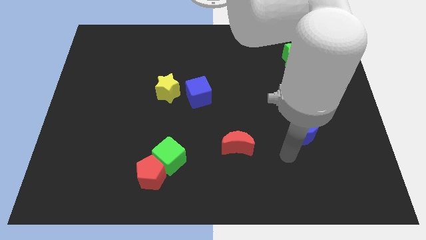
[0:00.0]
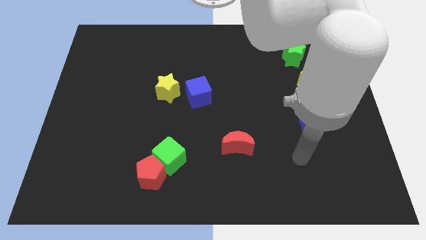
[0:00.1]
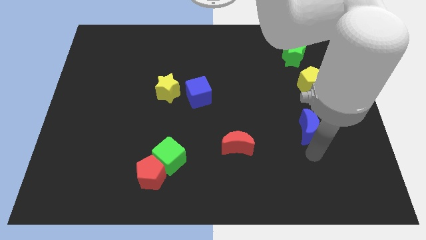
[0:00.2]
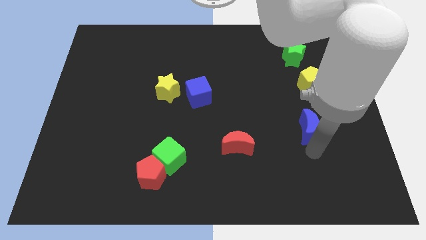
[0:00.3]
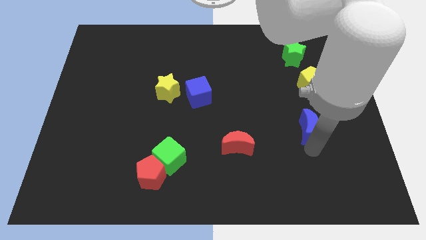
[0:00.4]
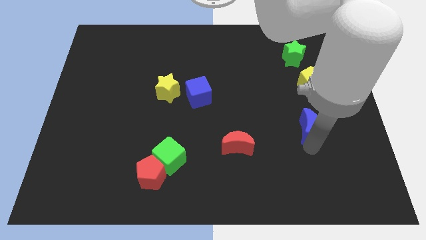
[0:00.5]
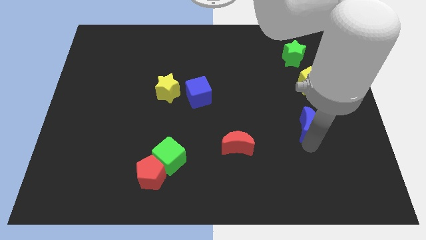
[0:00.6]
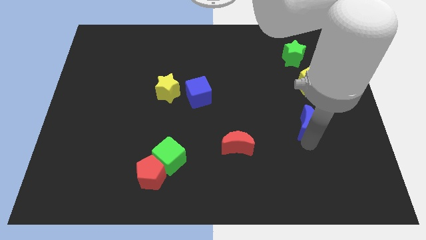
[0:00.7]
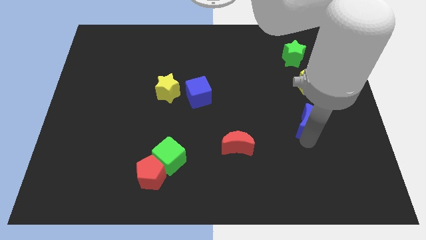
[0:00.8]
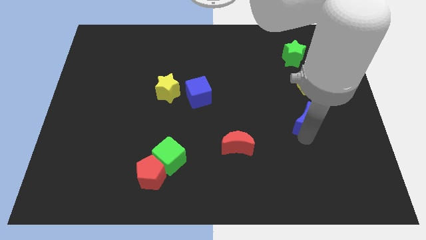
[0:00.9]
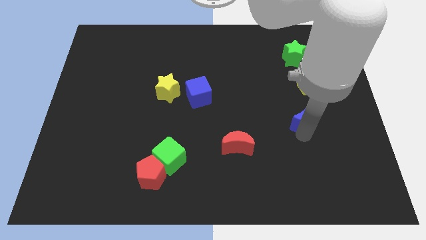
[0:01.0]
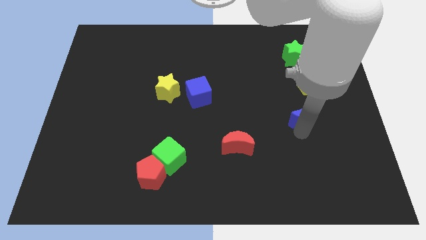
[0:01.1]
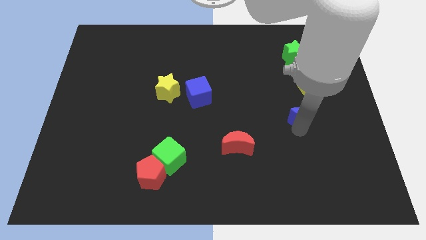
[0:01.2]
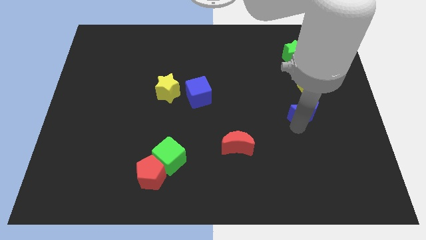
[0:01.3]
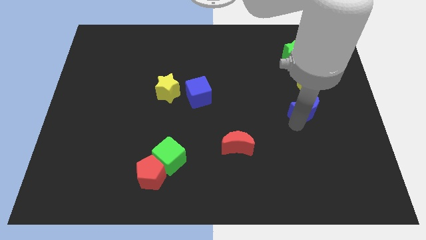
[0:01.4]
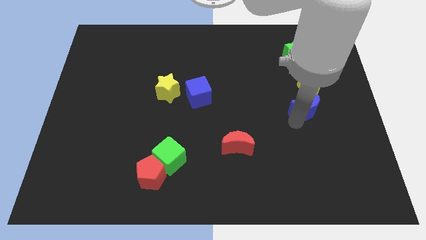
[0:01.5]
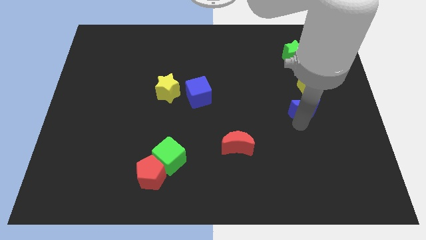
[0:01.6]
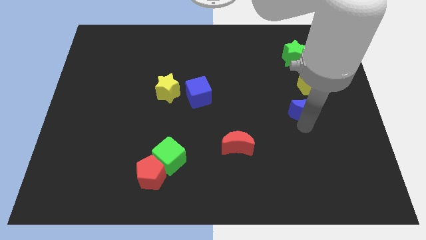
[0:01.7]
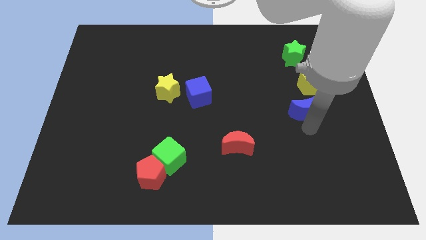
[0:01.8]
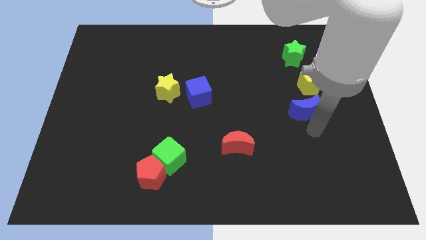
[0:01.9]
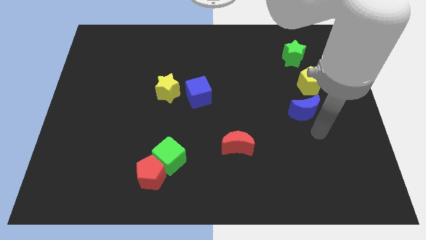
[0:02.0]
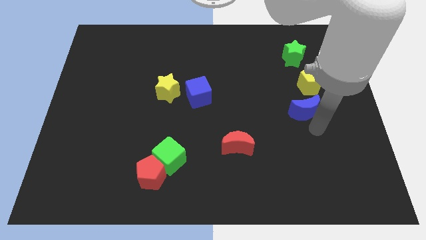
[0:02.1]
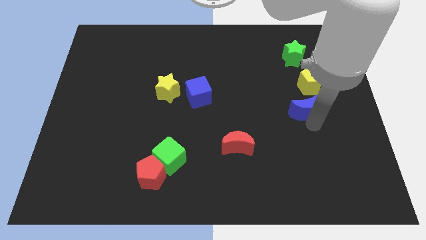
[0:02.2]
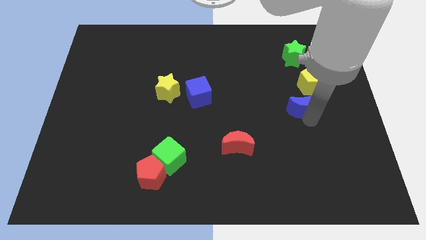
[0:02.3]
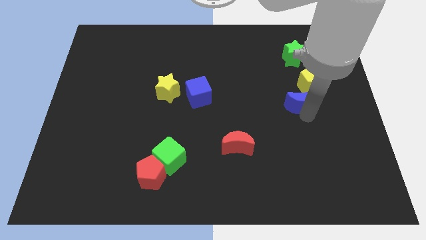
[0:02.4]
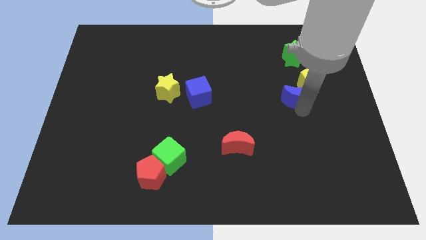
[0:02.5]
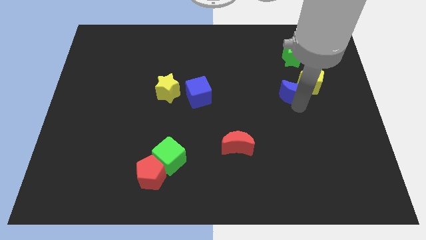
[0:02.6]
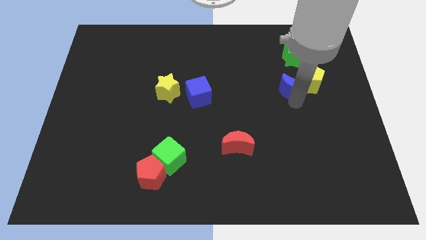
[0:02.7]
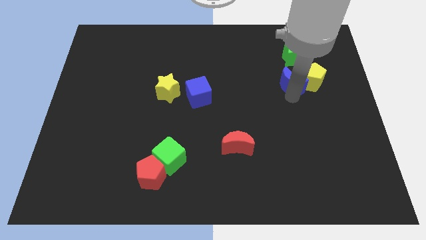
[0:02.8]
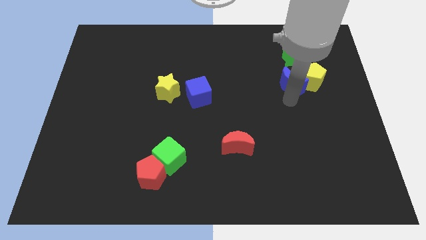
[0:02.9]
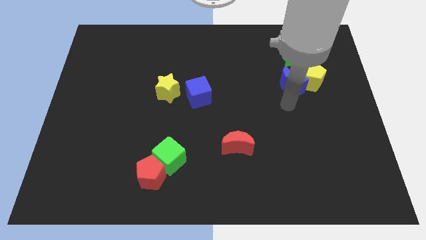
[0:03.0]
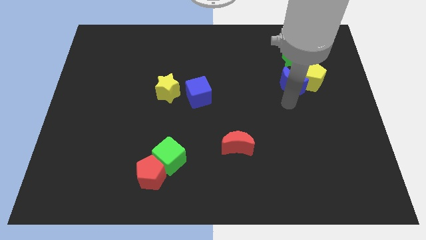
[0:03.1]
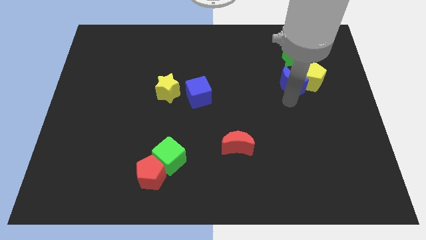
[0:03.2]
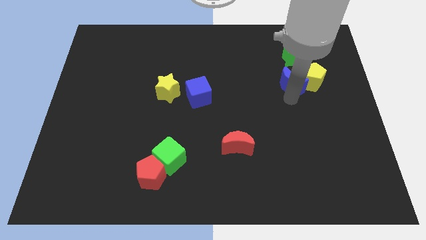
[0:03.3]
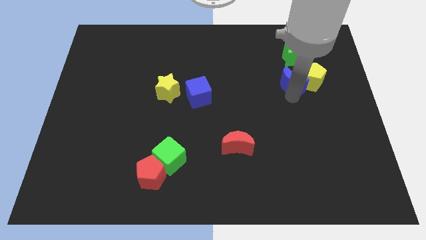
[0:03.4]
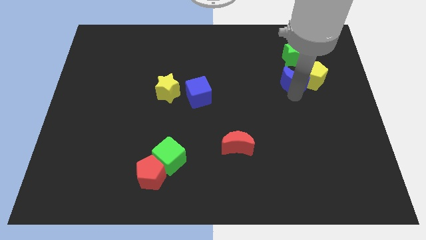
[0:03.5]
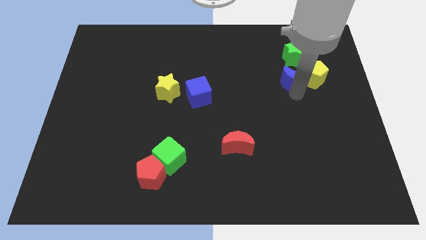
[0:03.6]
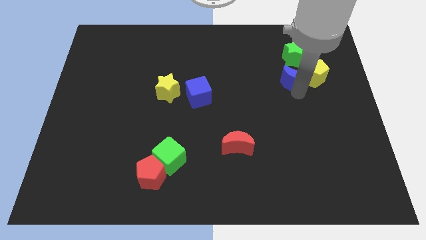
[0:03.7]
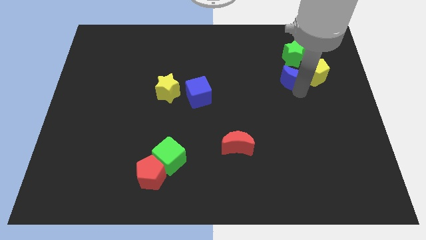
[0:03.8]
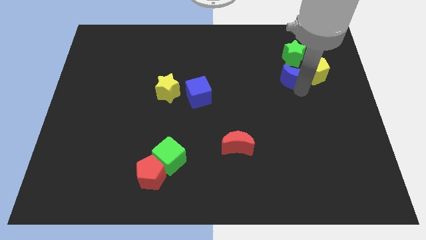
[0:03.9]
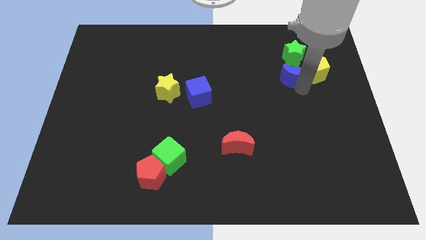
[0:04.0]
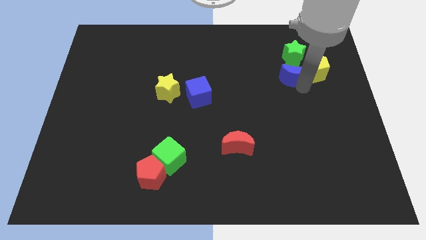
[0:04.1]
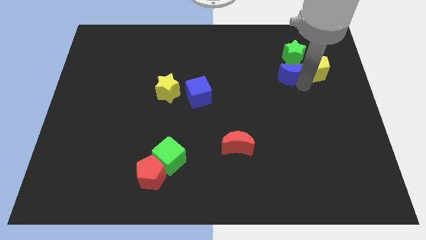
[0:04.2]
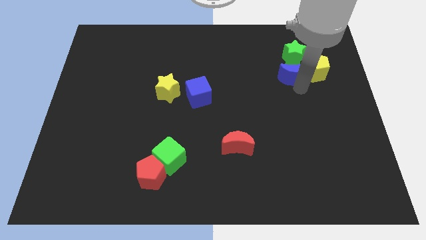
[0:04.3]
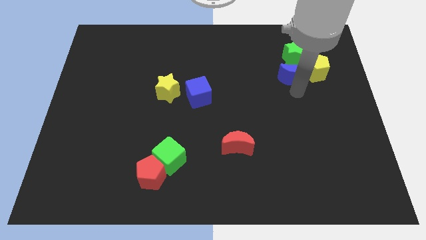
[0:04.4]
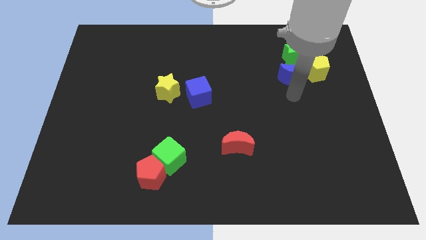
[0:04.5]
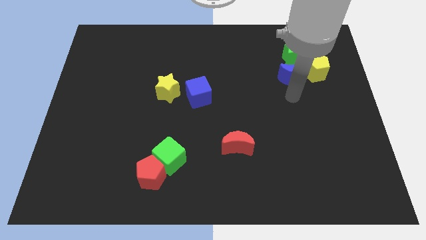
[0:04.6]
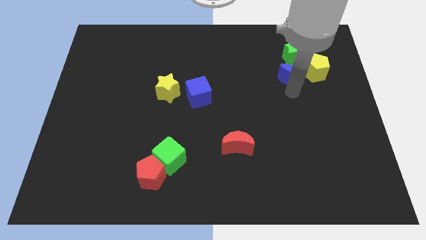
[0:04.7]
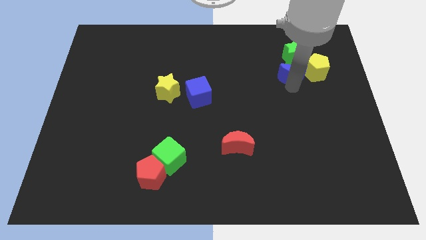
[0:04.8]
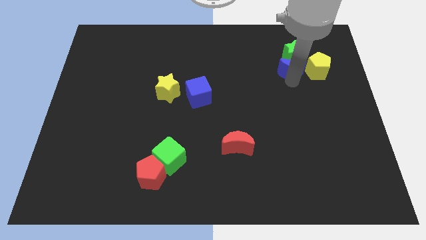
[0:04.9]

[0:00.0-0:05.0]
push the blue moon towards the green star

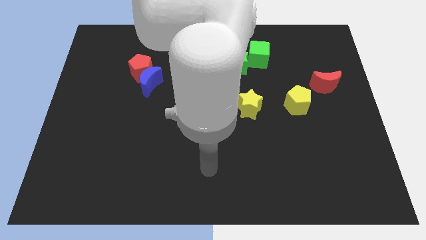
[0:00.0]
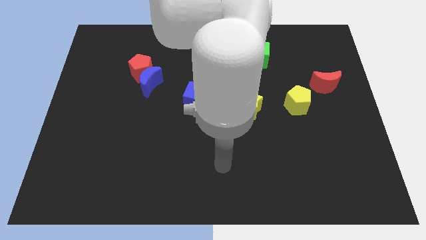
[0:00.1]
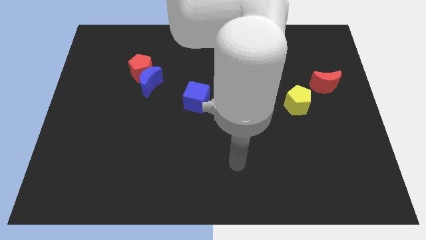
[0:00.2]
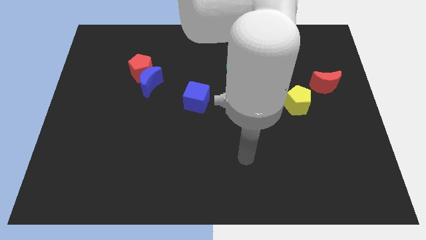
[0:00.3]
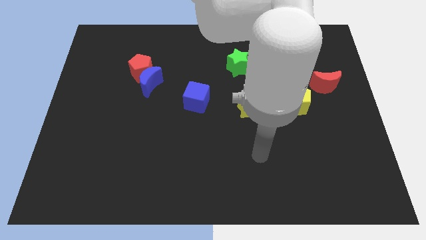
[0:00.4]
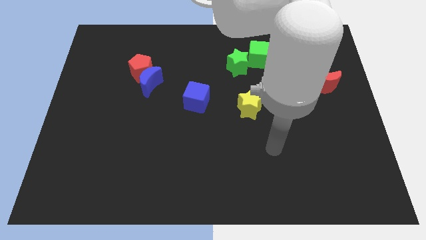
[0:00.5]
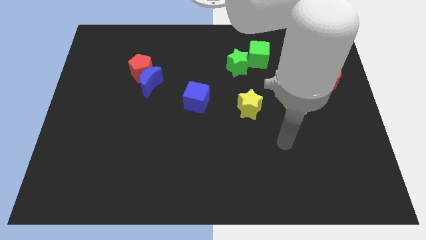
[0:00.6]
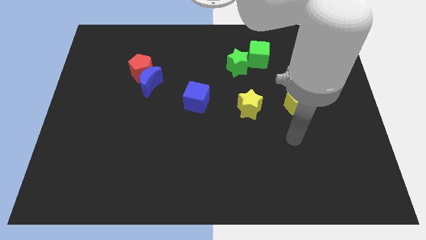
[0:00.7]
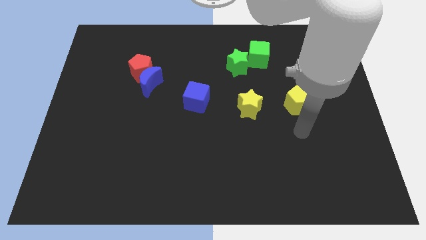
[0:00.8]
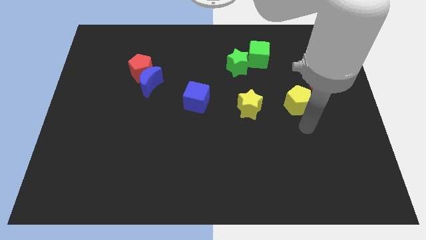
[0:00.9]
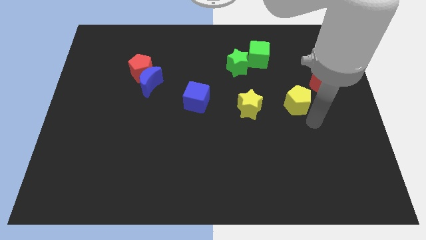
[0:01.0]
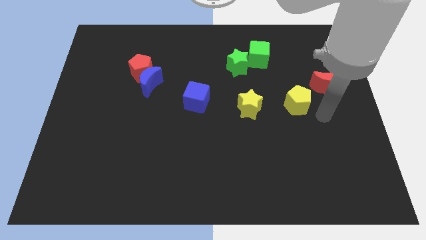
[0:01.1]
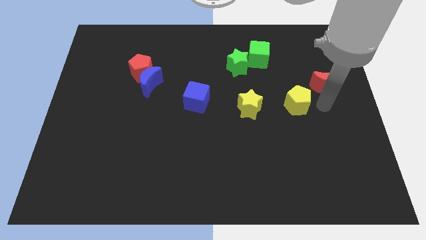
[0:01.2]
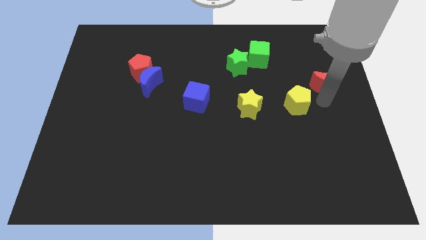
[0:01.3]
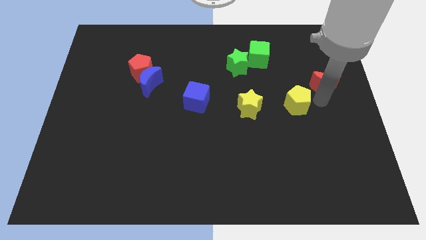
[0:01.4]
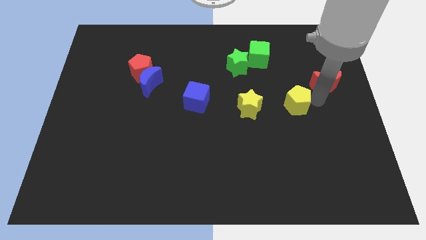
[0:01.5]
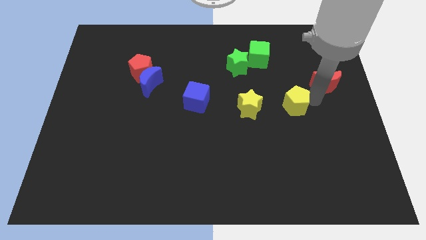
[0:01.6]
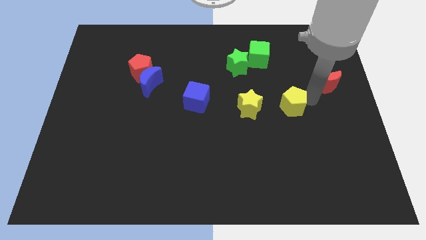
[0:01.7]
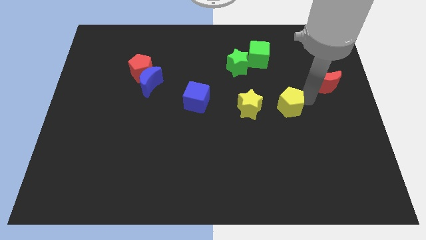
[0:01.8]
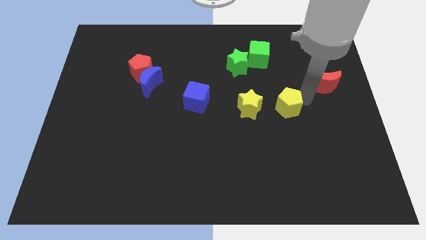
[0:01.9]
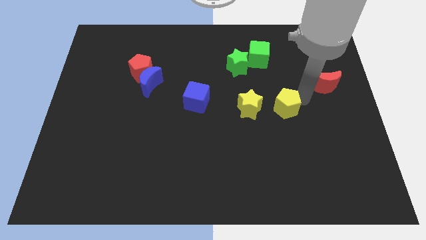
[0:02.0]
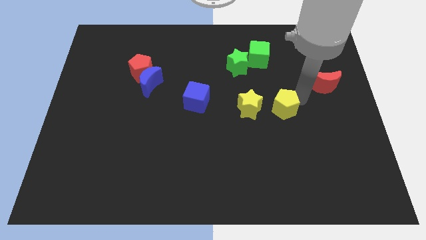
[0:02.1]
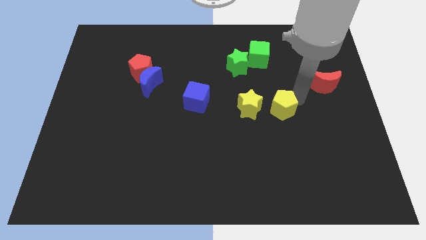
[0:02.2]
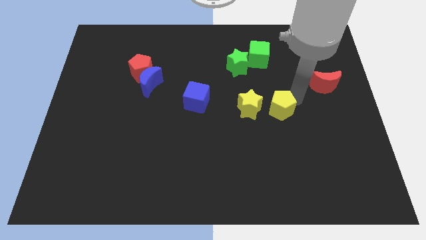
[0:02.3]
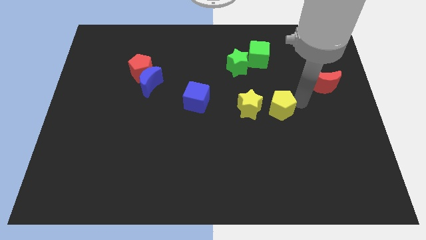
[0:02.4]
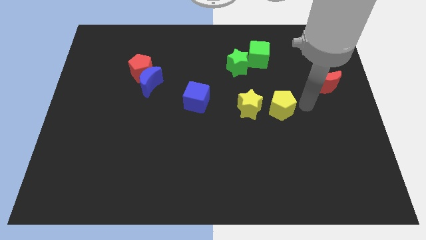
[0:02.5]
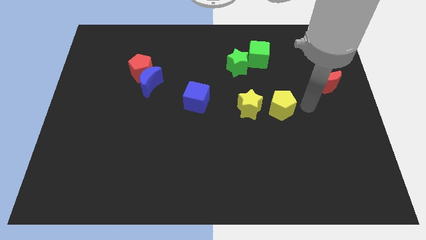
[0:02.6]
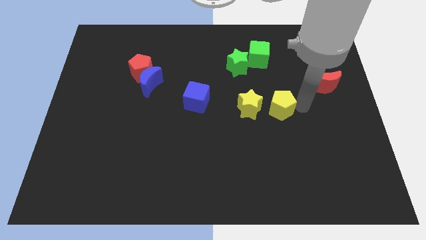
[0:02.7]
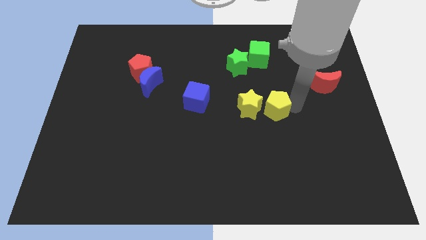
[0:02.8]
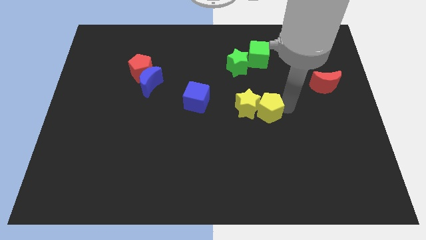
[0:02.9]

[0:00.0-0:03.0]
push the yellow pentagon to the yellow star

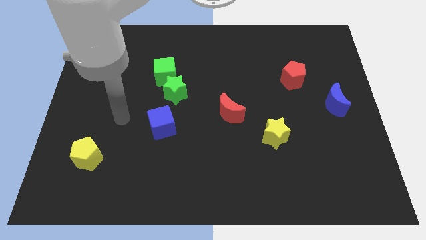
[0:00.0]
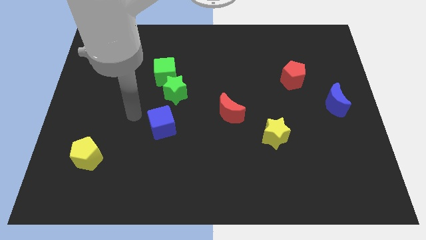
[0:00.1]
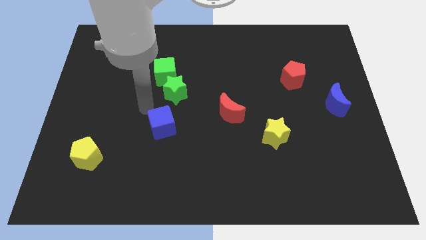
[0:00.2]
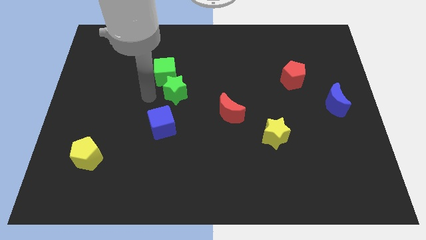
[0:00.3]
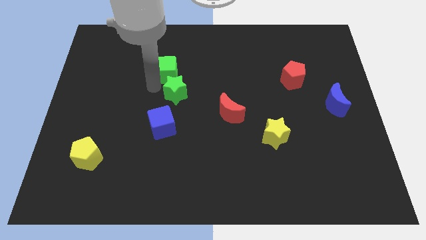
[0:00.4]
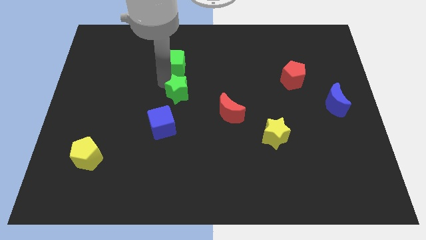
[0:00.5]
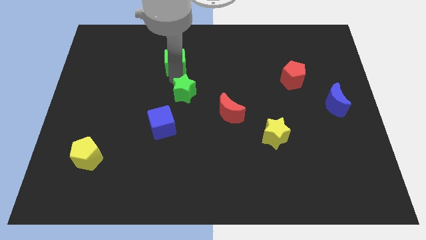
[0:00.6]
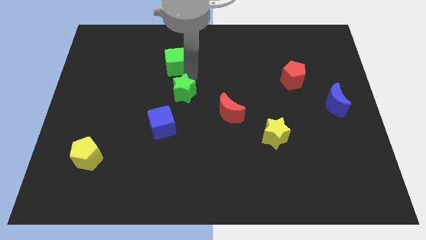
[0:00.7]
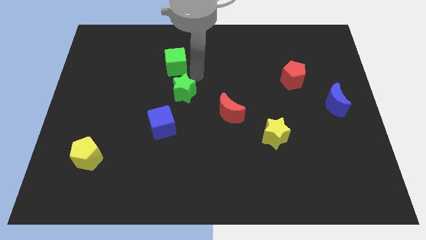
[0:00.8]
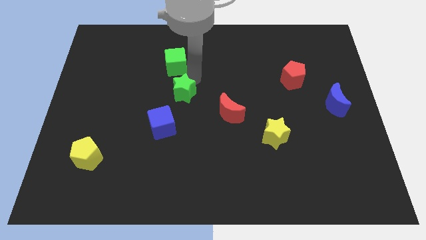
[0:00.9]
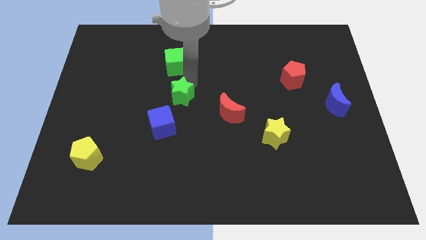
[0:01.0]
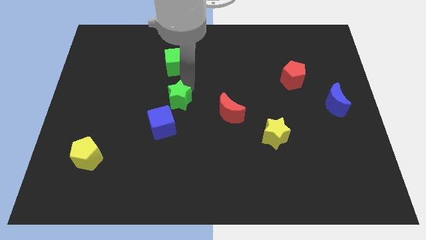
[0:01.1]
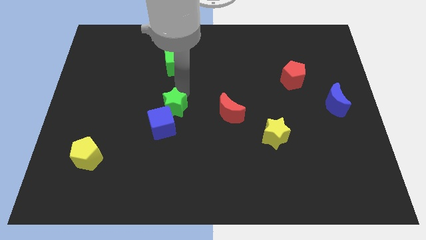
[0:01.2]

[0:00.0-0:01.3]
slide the green star next to the blue cube
